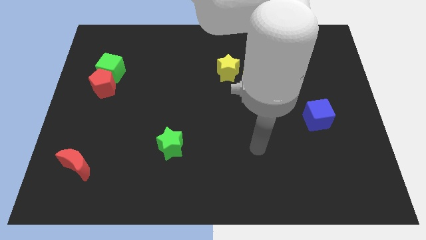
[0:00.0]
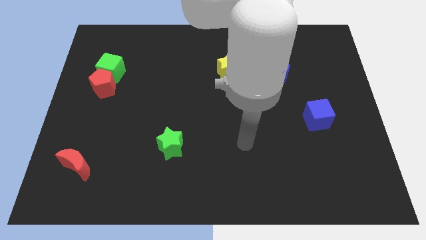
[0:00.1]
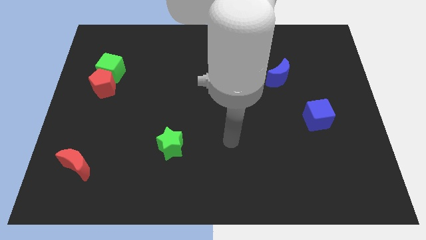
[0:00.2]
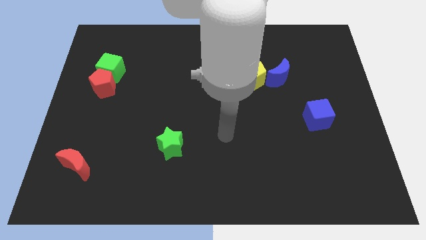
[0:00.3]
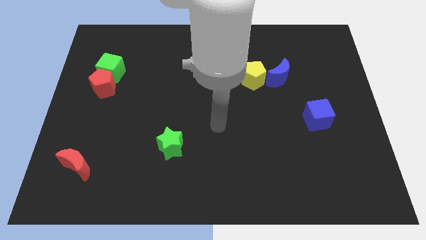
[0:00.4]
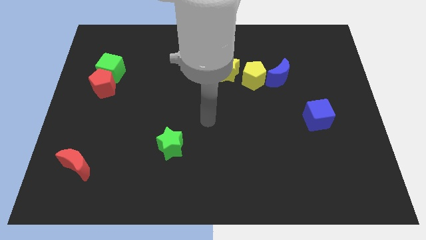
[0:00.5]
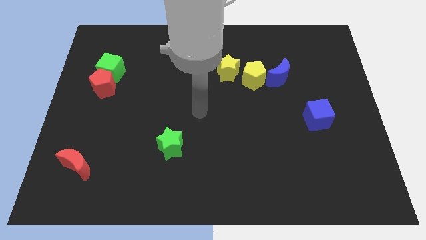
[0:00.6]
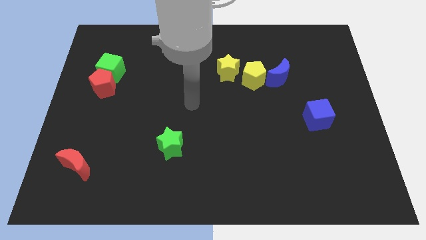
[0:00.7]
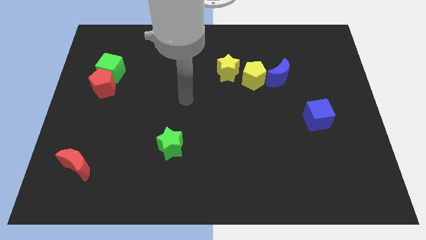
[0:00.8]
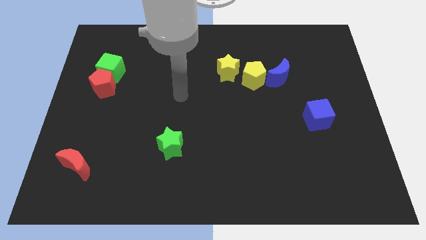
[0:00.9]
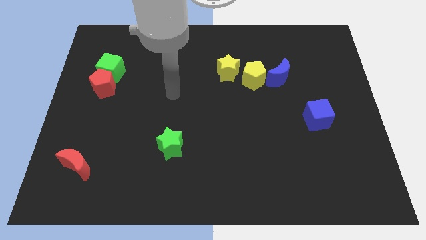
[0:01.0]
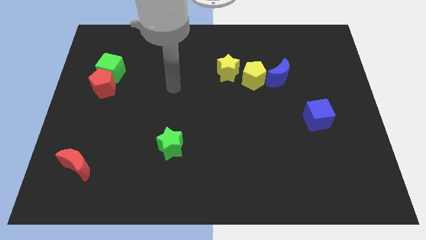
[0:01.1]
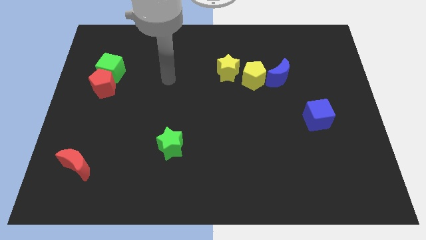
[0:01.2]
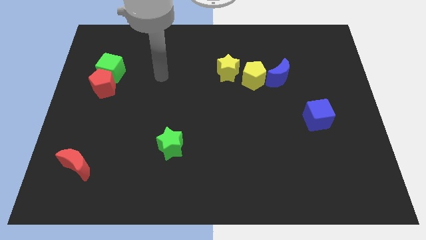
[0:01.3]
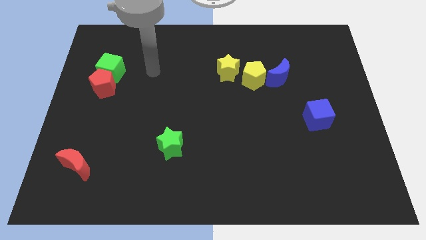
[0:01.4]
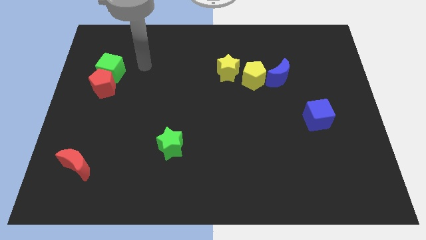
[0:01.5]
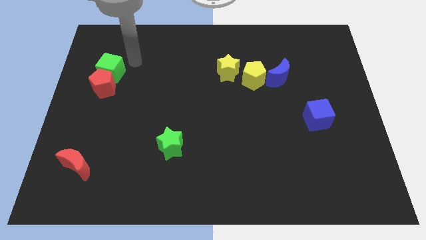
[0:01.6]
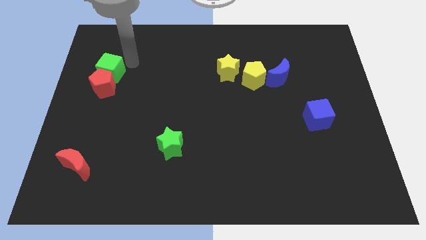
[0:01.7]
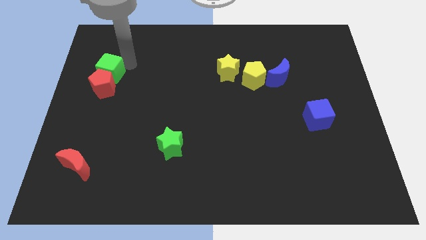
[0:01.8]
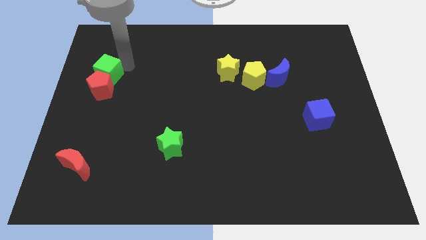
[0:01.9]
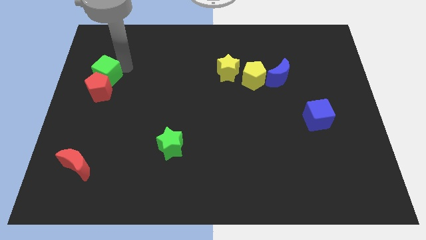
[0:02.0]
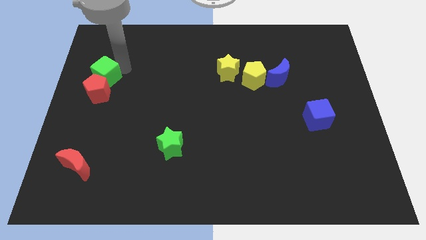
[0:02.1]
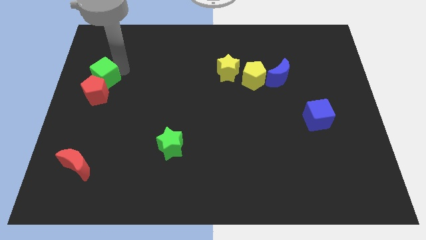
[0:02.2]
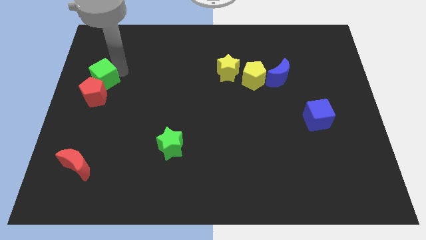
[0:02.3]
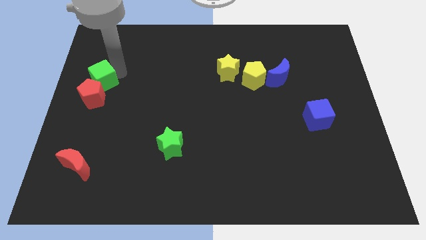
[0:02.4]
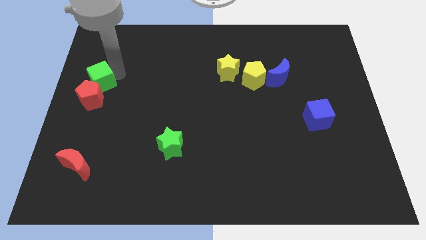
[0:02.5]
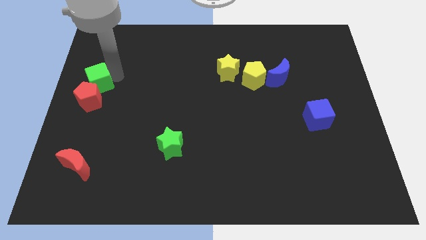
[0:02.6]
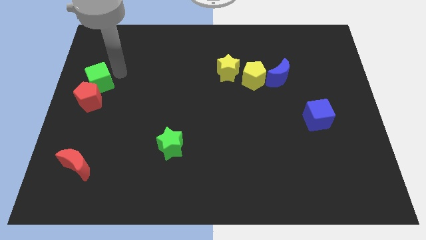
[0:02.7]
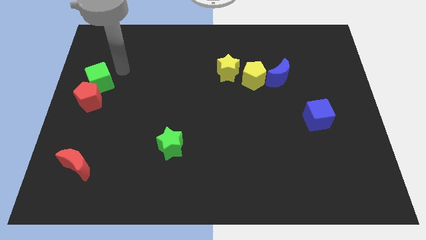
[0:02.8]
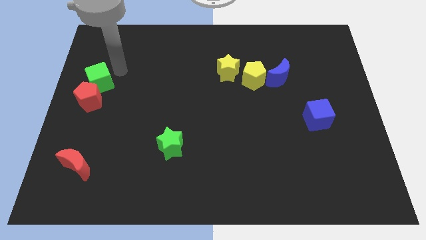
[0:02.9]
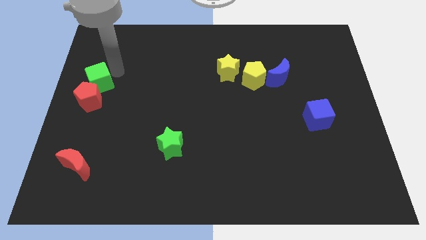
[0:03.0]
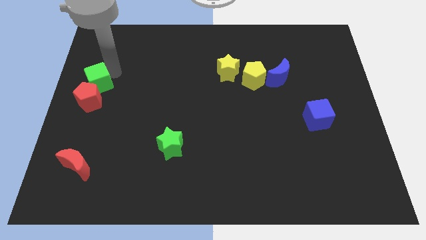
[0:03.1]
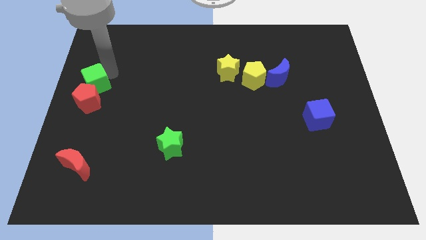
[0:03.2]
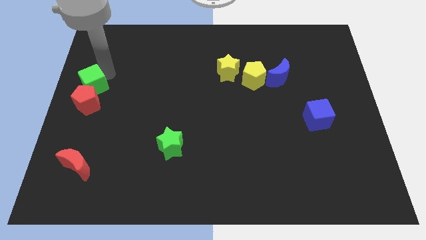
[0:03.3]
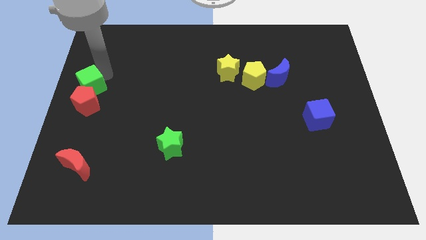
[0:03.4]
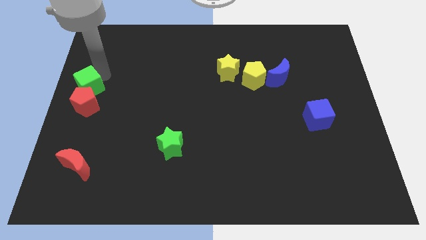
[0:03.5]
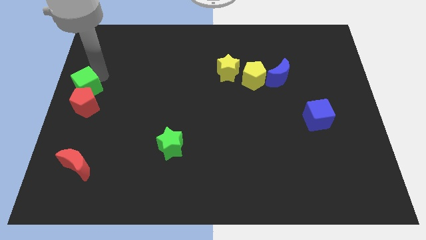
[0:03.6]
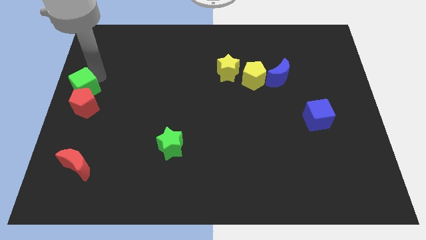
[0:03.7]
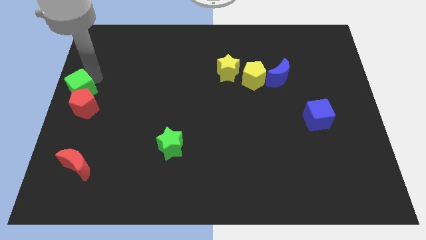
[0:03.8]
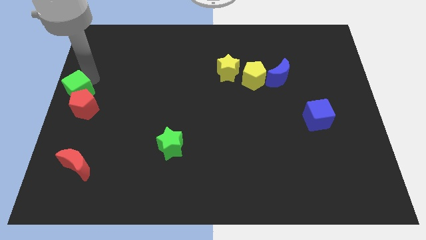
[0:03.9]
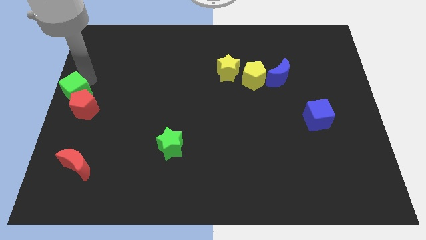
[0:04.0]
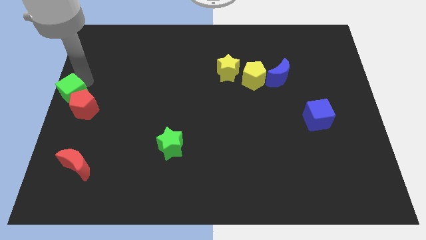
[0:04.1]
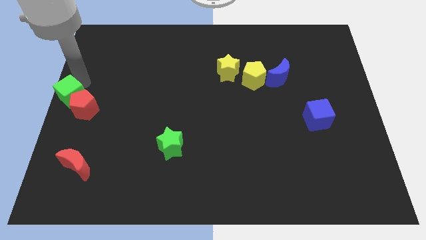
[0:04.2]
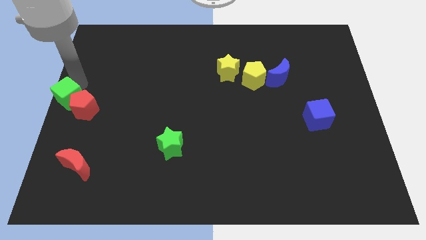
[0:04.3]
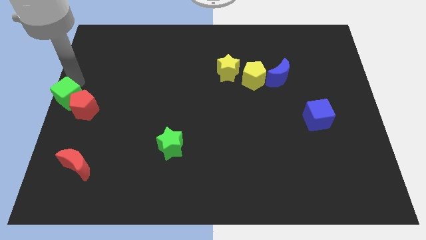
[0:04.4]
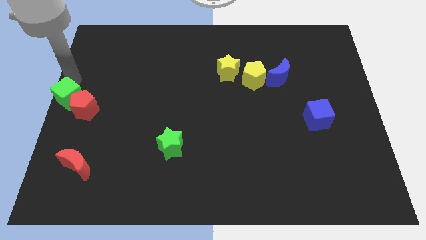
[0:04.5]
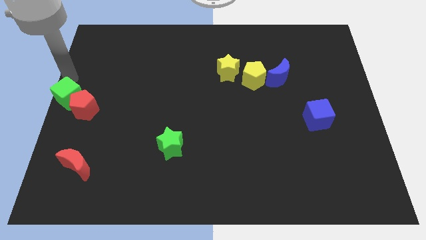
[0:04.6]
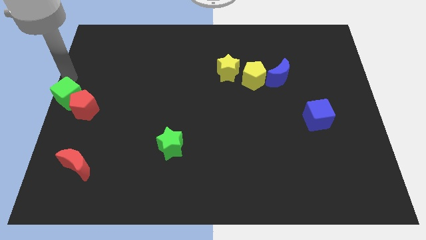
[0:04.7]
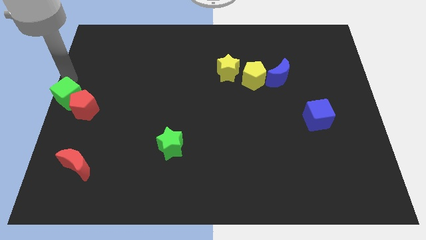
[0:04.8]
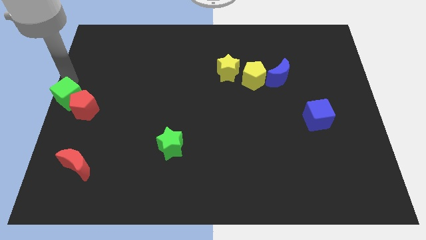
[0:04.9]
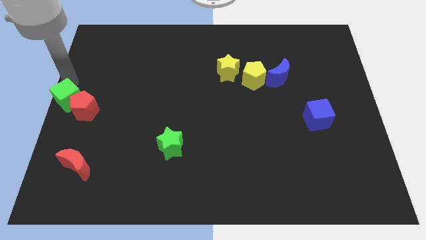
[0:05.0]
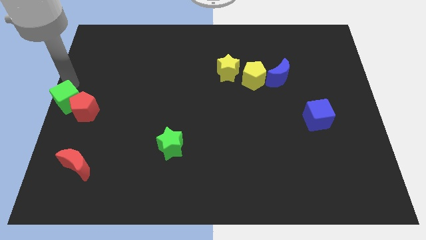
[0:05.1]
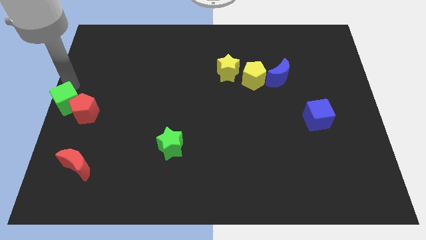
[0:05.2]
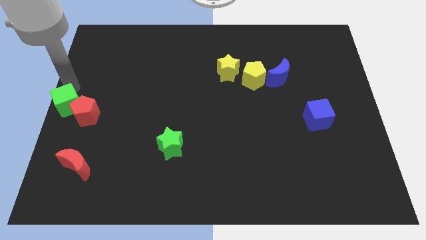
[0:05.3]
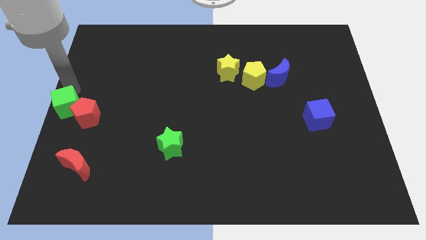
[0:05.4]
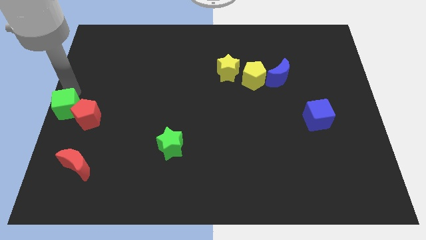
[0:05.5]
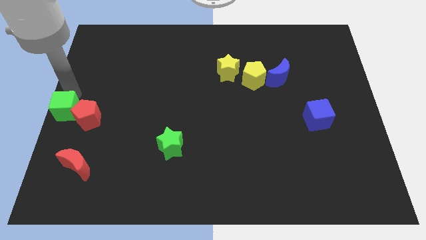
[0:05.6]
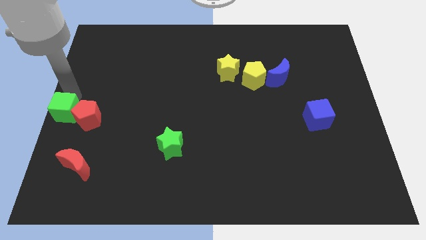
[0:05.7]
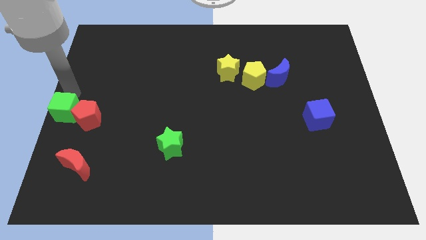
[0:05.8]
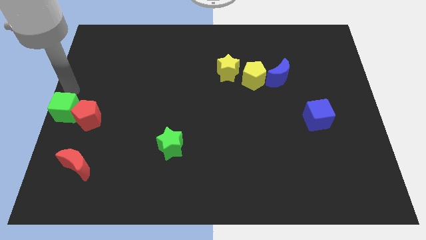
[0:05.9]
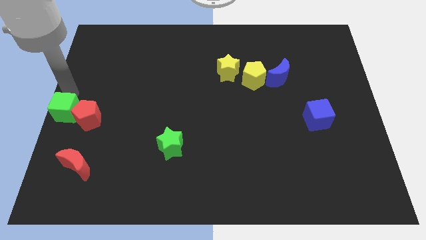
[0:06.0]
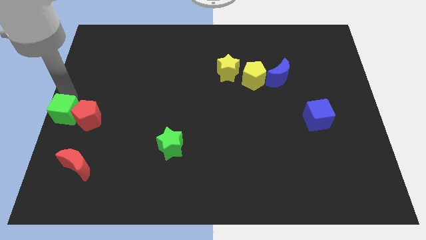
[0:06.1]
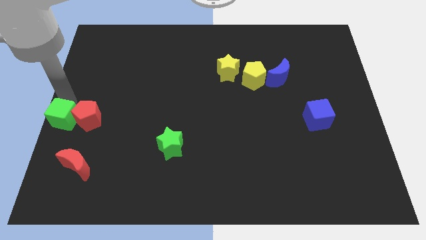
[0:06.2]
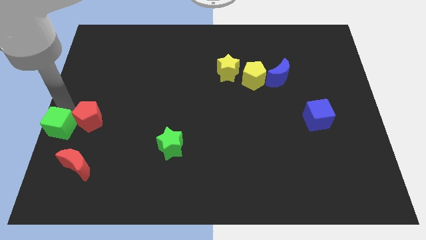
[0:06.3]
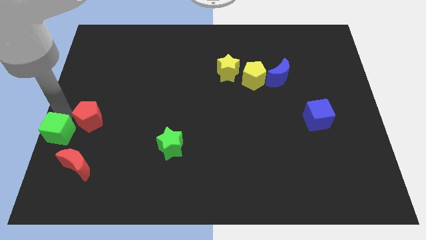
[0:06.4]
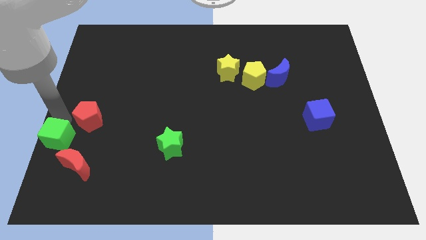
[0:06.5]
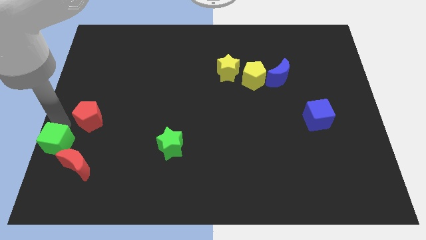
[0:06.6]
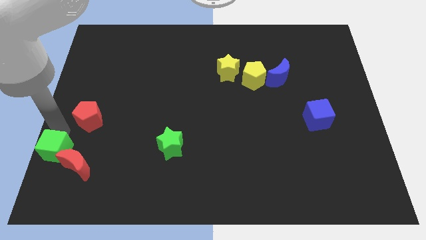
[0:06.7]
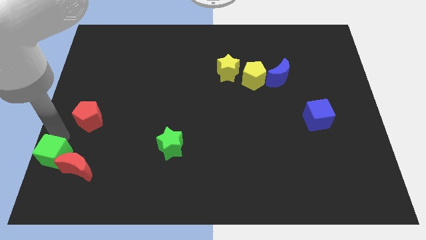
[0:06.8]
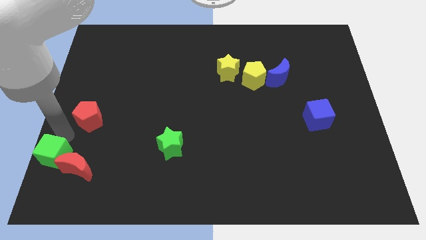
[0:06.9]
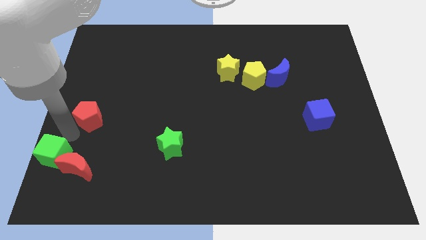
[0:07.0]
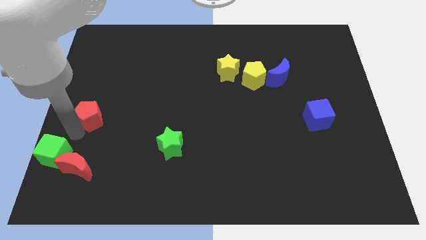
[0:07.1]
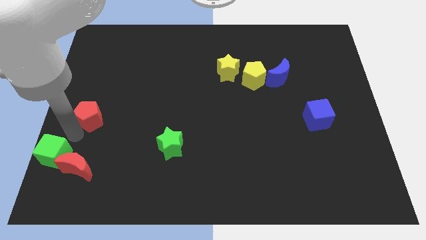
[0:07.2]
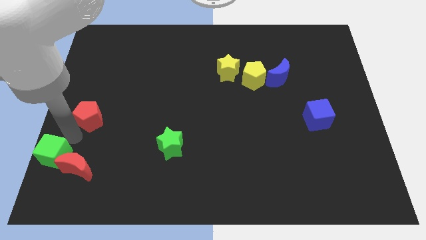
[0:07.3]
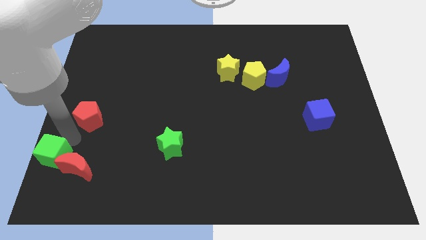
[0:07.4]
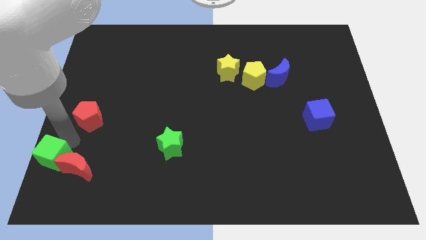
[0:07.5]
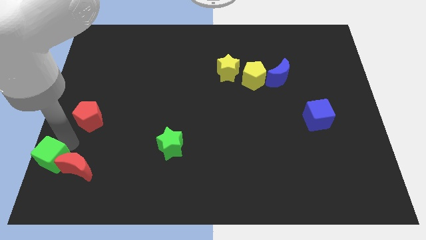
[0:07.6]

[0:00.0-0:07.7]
move the green cube to the bottom left corner
